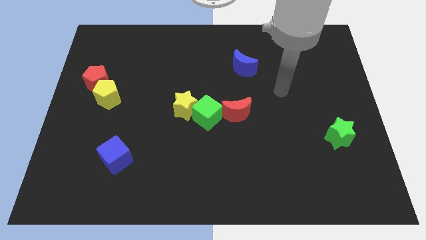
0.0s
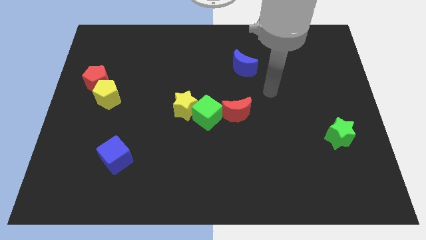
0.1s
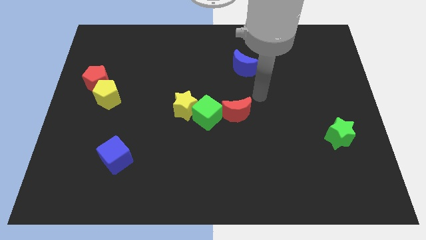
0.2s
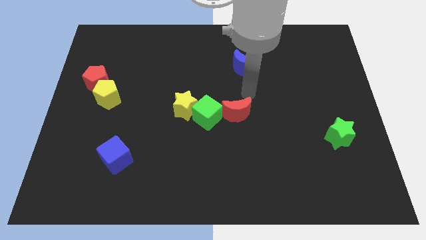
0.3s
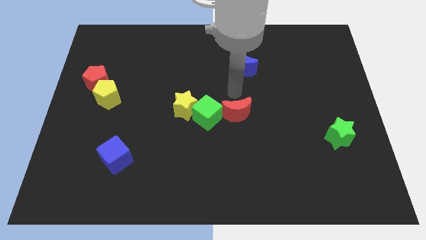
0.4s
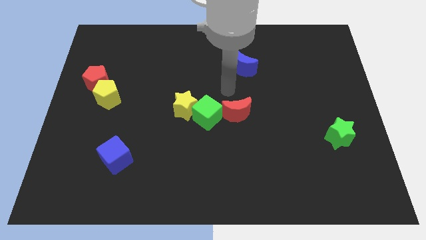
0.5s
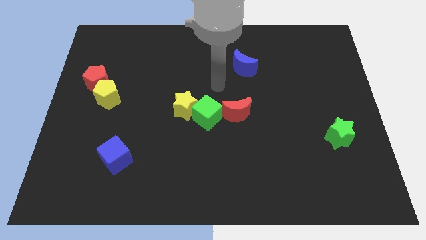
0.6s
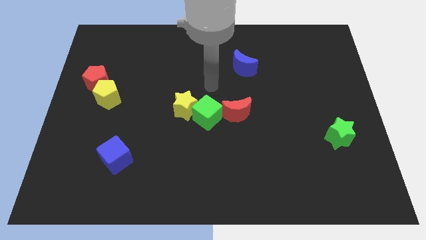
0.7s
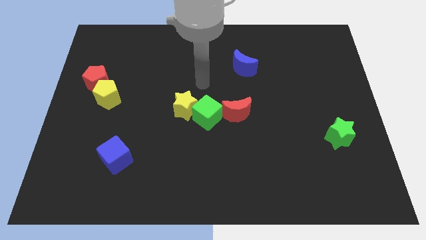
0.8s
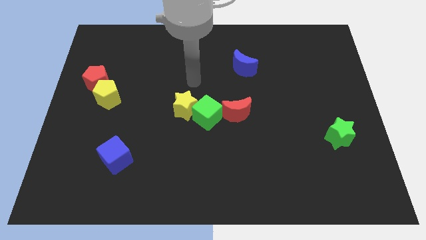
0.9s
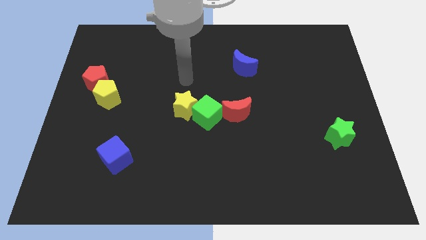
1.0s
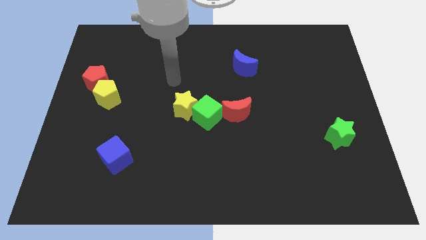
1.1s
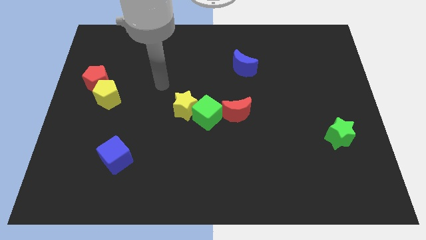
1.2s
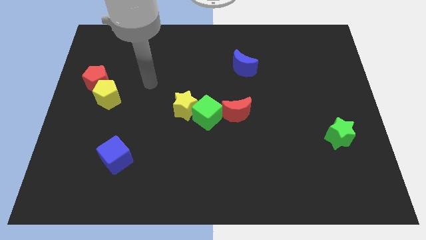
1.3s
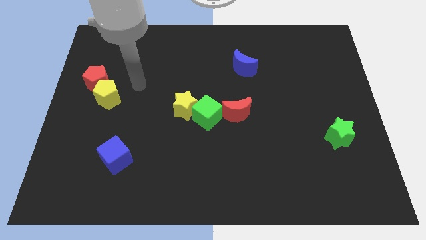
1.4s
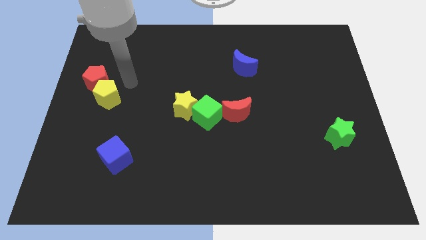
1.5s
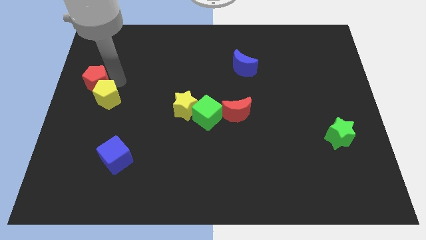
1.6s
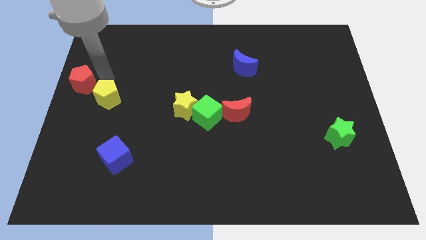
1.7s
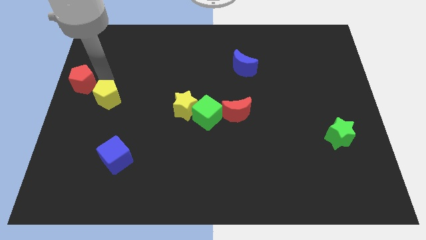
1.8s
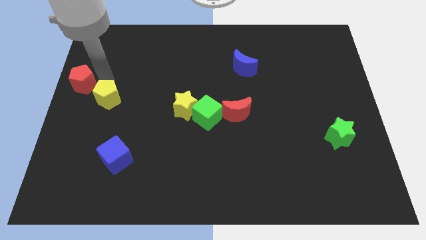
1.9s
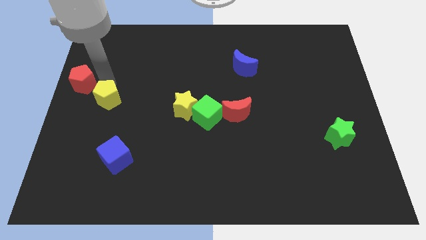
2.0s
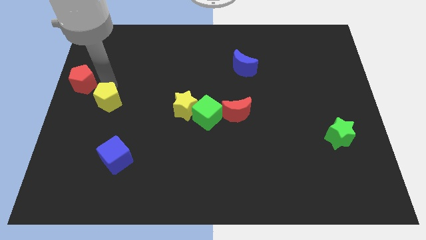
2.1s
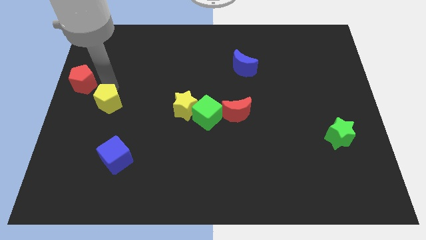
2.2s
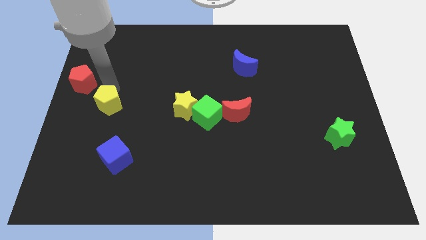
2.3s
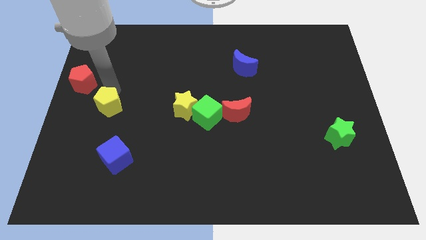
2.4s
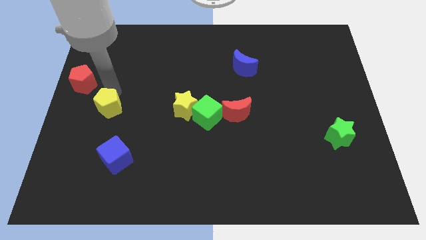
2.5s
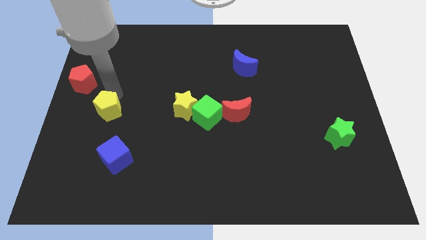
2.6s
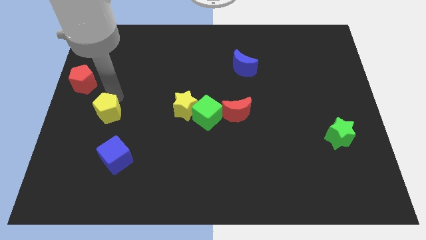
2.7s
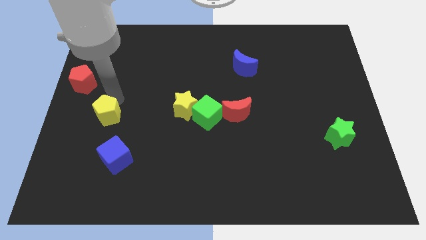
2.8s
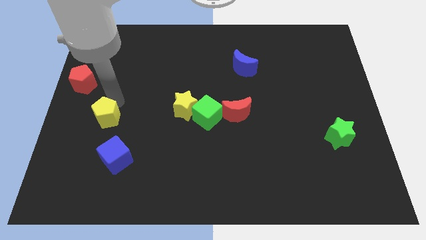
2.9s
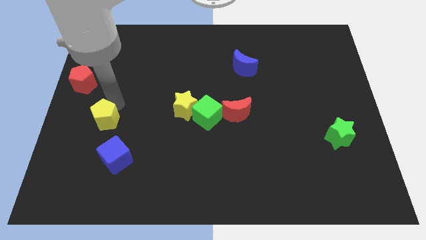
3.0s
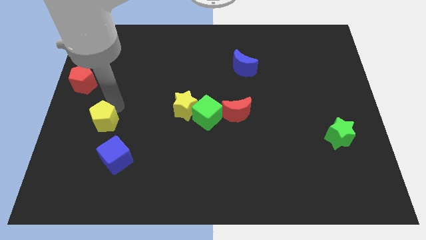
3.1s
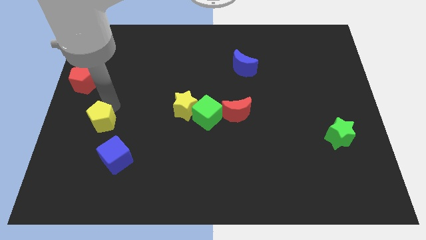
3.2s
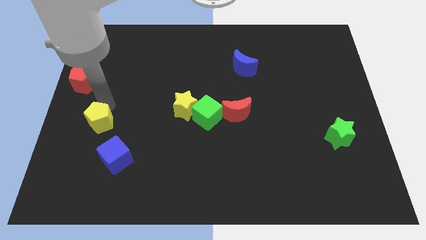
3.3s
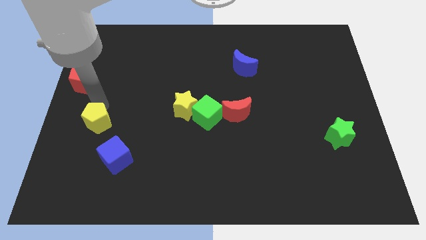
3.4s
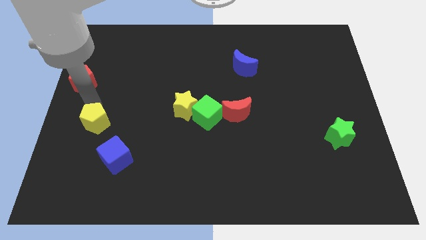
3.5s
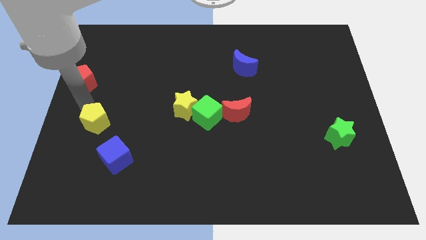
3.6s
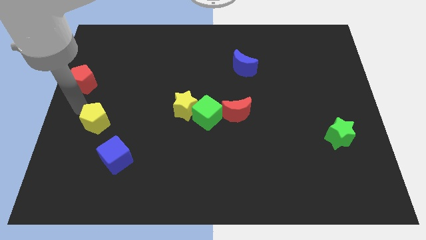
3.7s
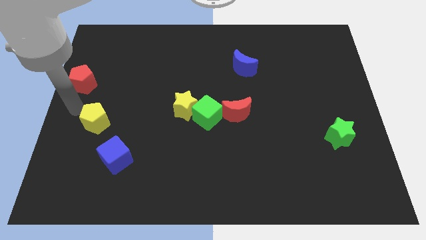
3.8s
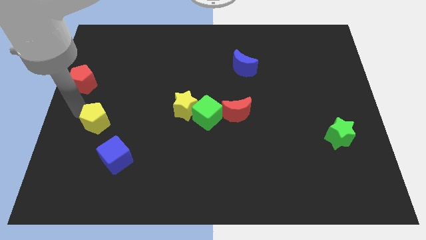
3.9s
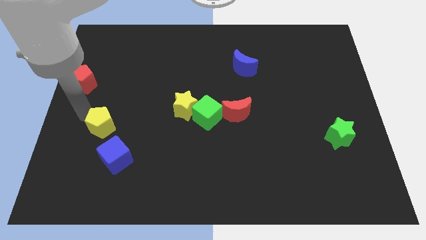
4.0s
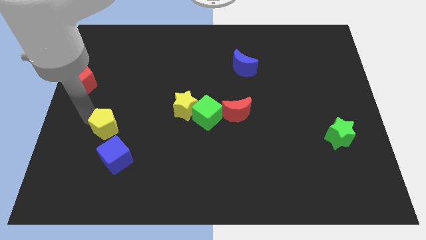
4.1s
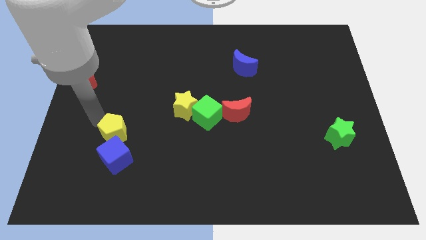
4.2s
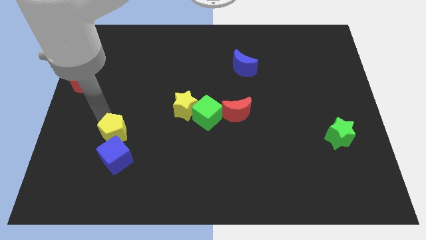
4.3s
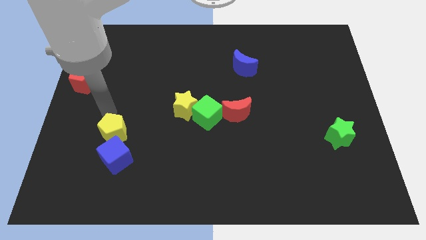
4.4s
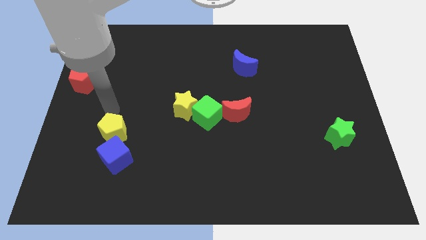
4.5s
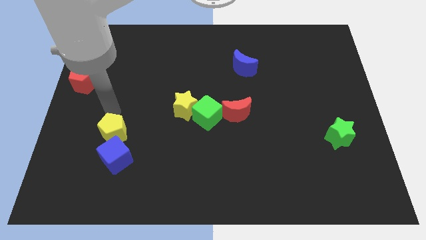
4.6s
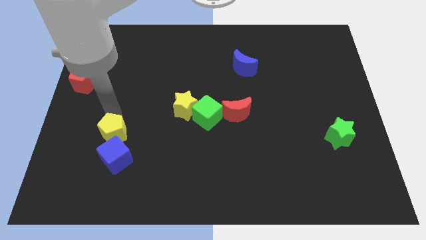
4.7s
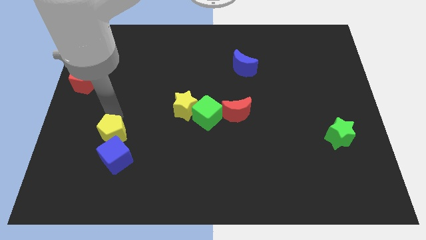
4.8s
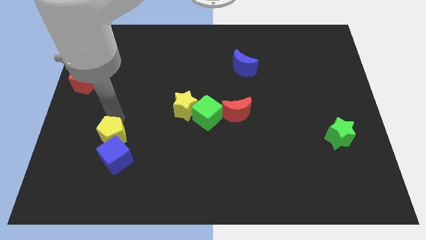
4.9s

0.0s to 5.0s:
slide the yellow pentagon towards the blue cube

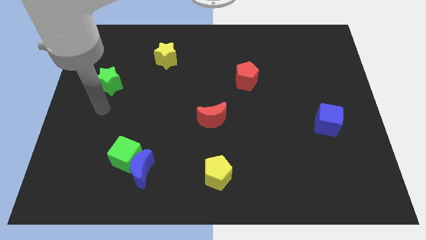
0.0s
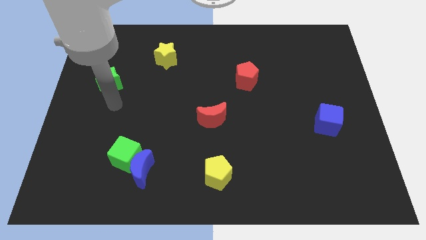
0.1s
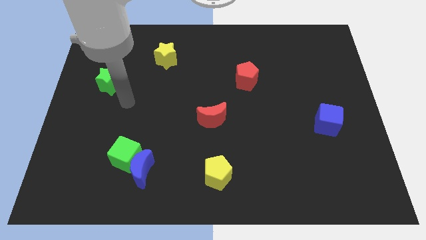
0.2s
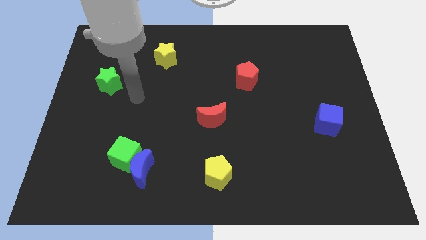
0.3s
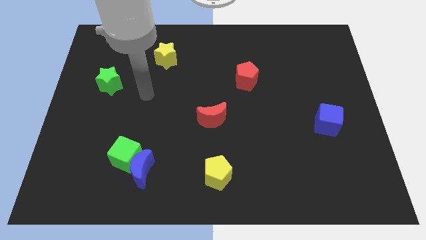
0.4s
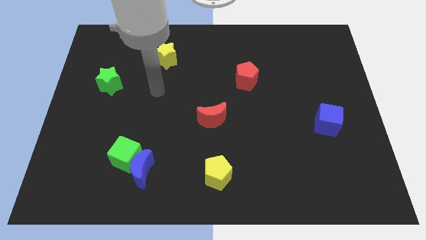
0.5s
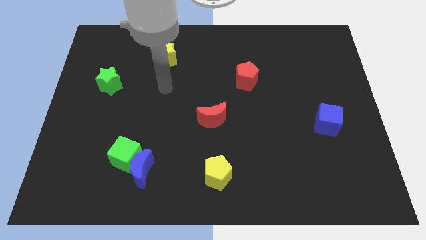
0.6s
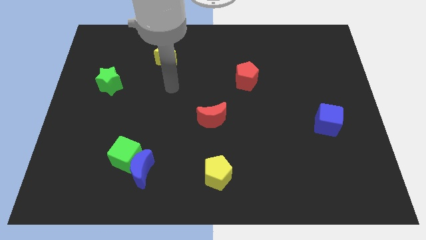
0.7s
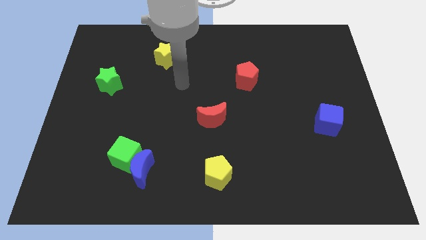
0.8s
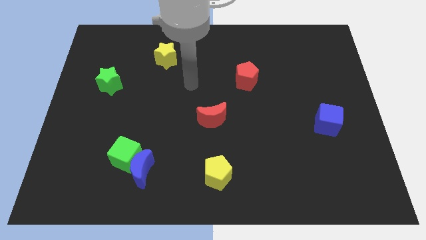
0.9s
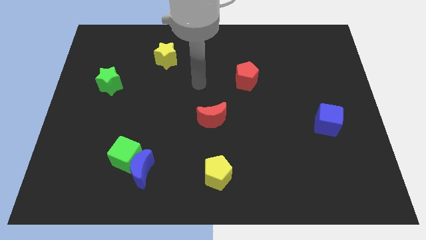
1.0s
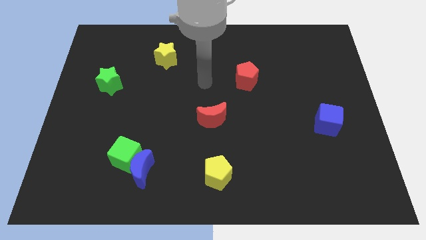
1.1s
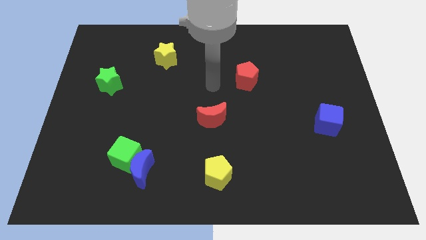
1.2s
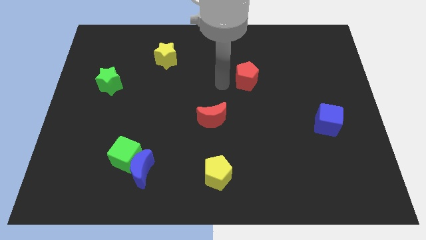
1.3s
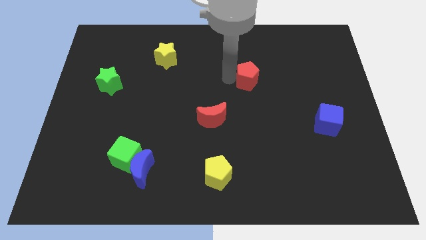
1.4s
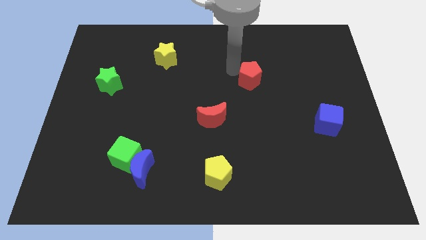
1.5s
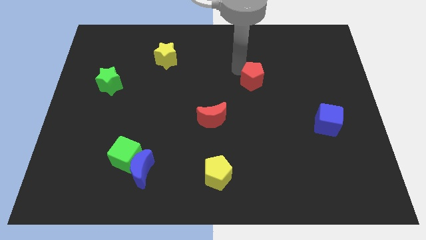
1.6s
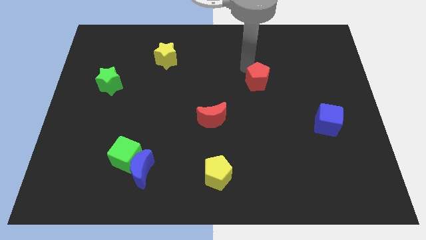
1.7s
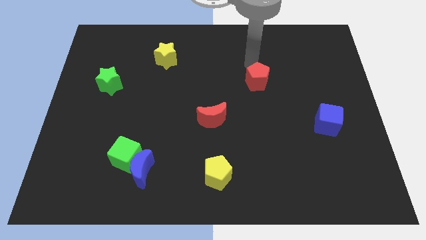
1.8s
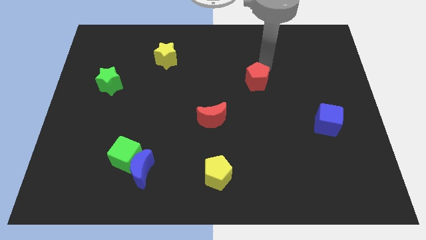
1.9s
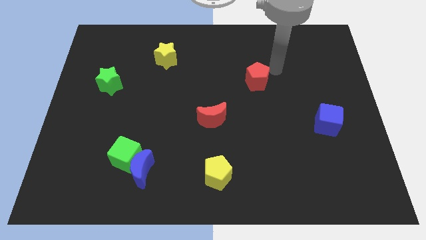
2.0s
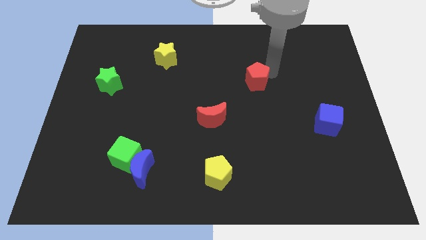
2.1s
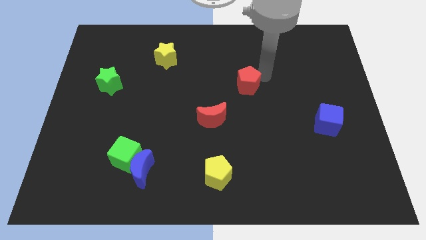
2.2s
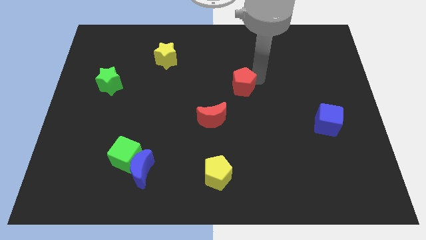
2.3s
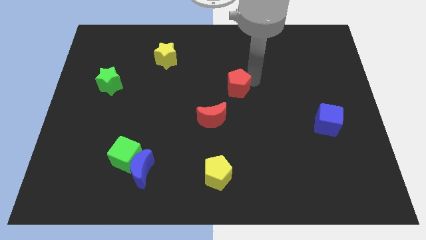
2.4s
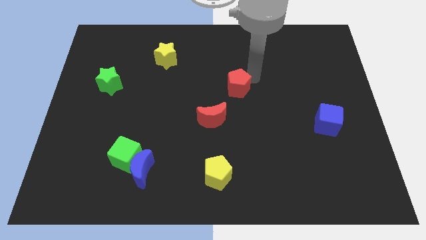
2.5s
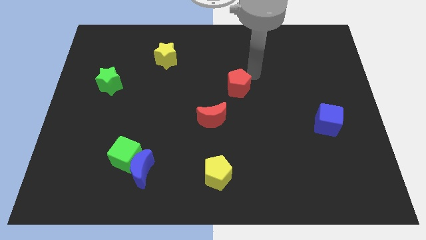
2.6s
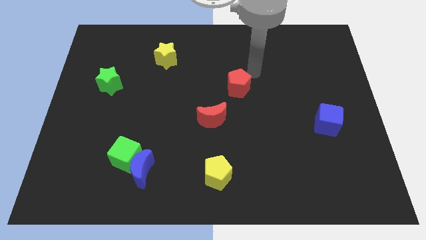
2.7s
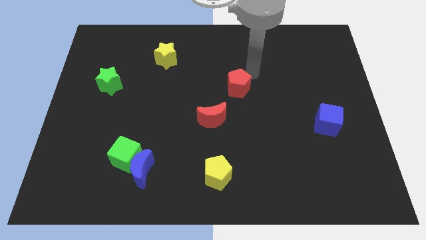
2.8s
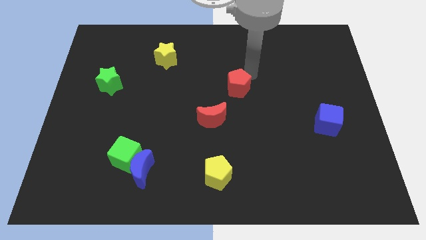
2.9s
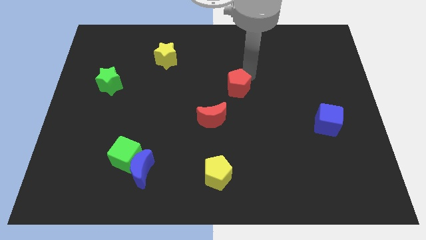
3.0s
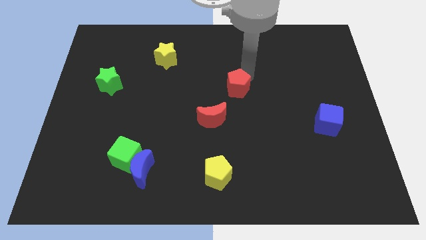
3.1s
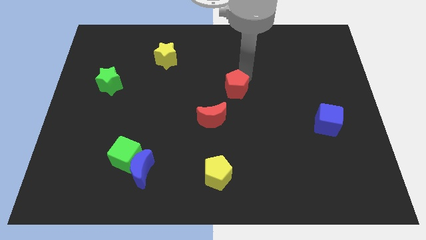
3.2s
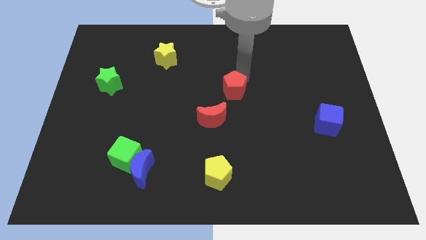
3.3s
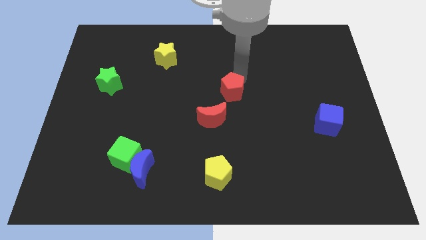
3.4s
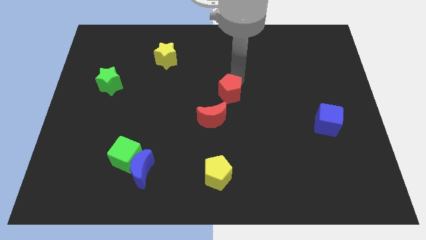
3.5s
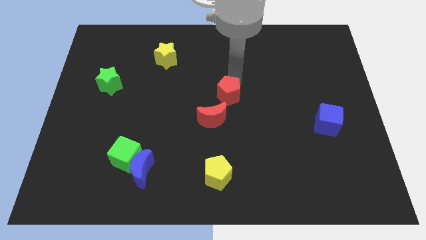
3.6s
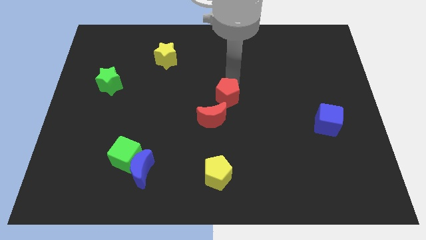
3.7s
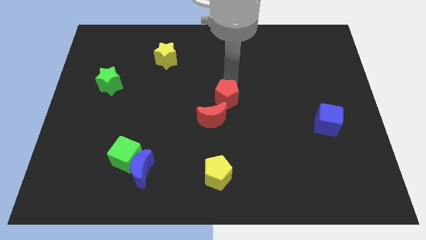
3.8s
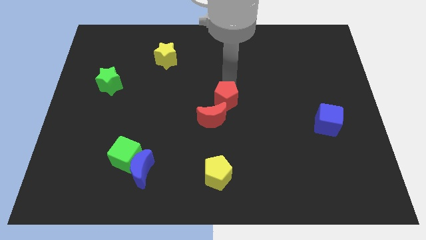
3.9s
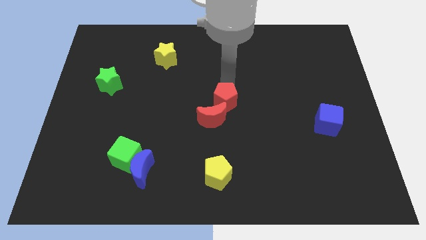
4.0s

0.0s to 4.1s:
push the red pentagon next to the red moon
